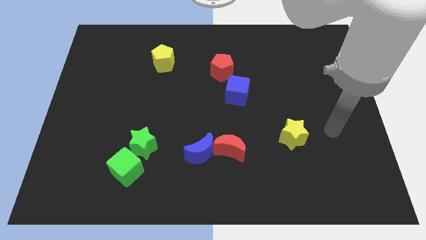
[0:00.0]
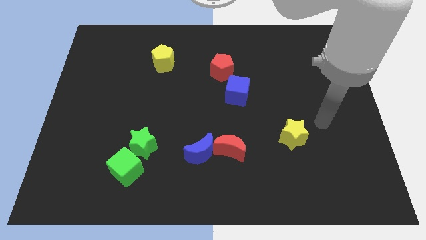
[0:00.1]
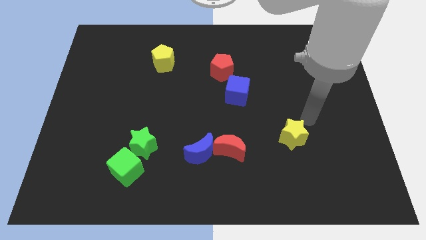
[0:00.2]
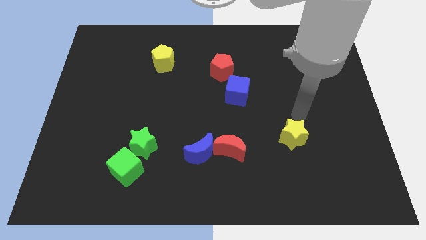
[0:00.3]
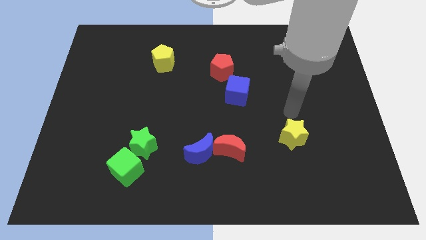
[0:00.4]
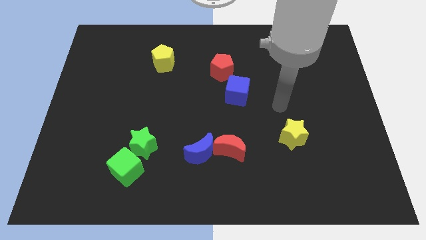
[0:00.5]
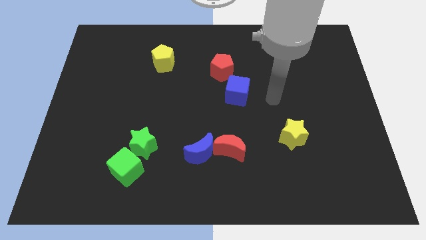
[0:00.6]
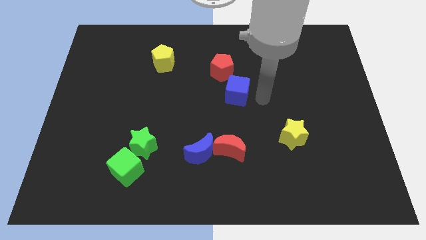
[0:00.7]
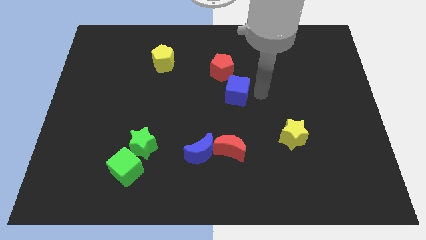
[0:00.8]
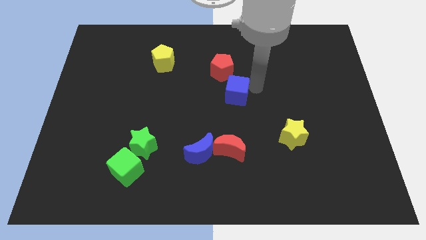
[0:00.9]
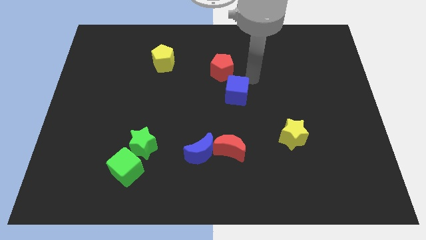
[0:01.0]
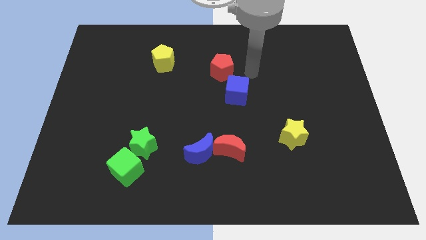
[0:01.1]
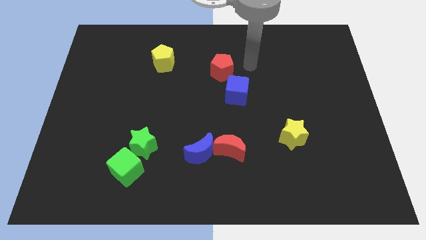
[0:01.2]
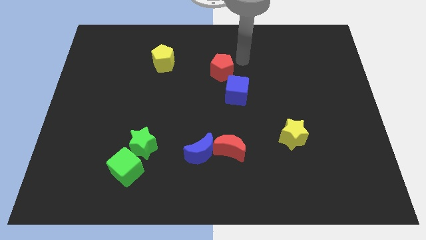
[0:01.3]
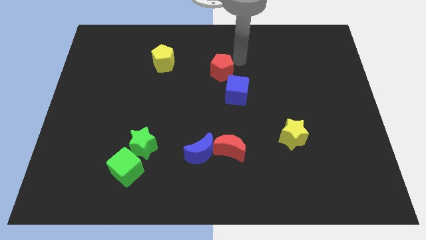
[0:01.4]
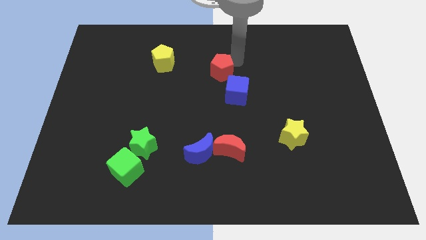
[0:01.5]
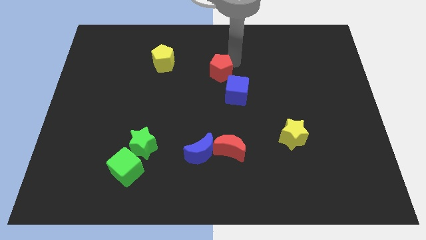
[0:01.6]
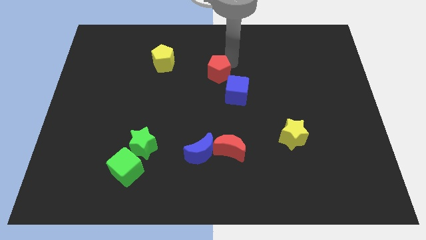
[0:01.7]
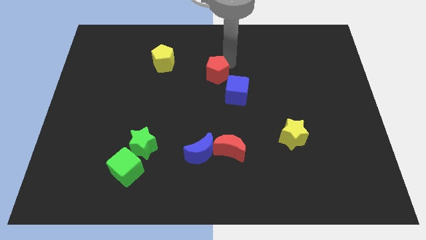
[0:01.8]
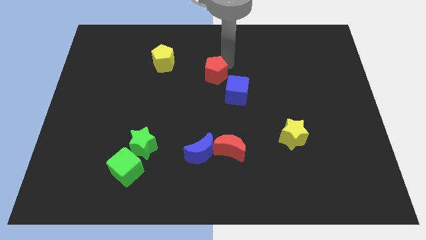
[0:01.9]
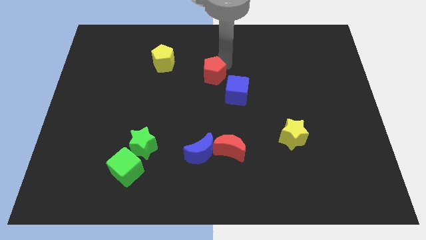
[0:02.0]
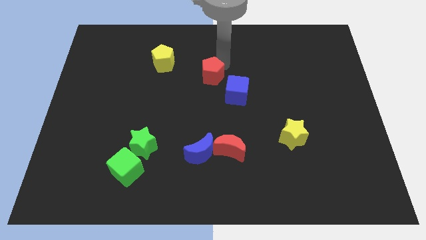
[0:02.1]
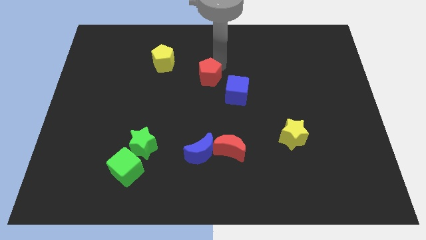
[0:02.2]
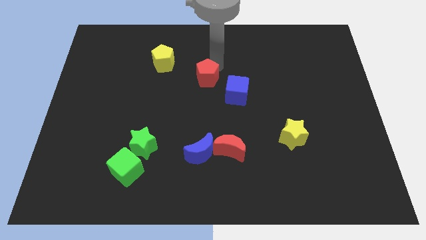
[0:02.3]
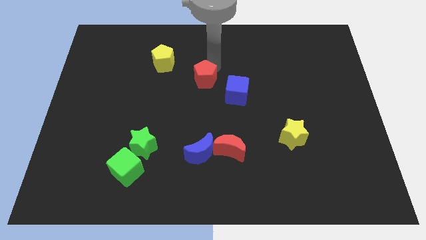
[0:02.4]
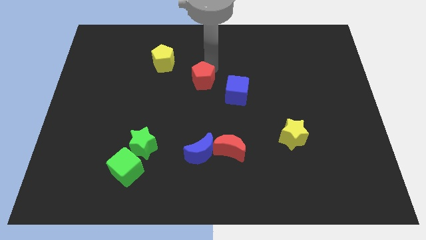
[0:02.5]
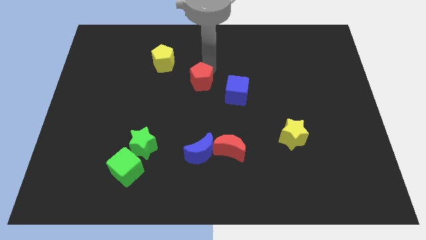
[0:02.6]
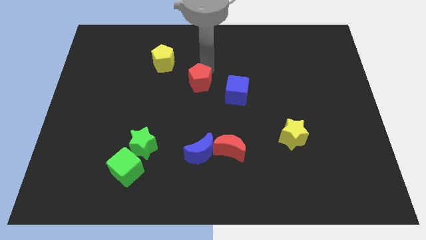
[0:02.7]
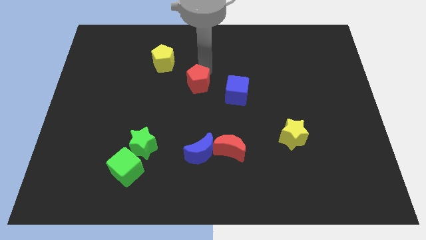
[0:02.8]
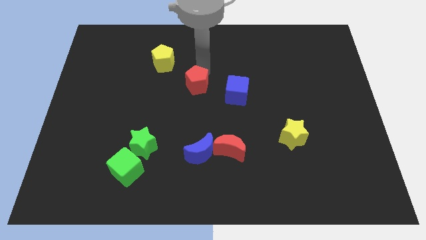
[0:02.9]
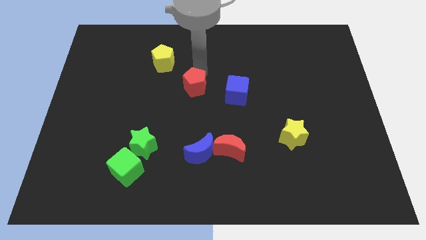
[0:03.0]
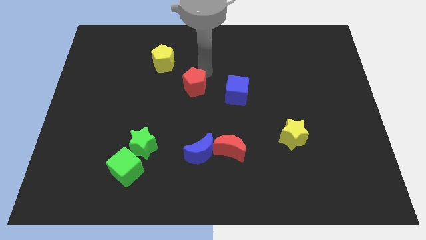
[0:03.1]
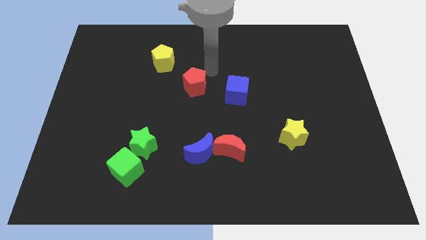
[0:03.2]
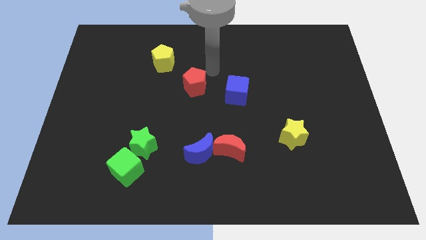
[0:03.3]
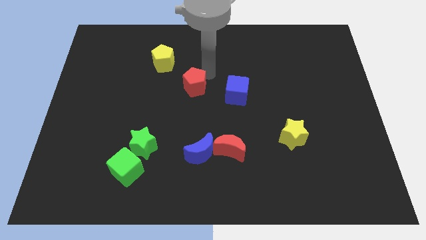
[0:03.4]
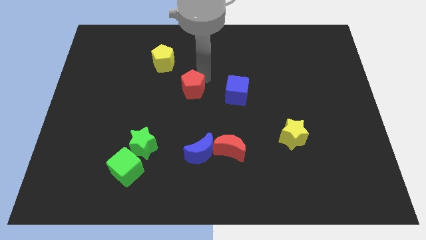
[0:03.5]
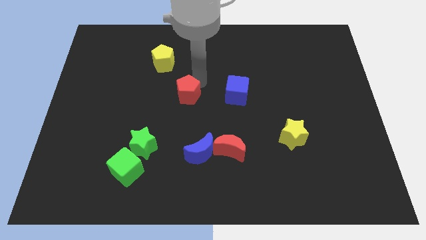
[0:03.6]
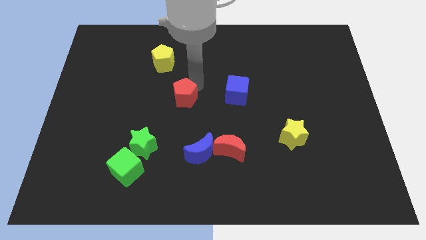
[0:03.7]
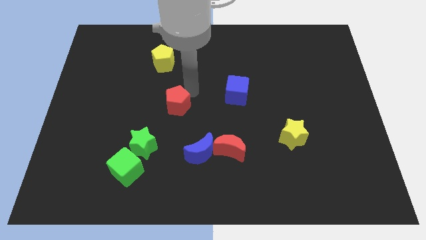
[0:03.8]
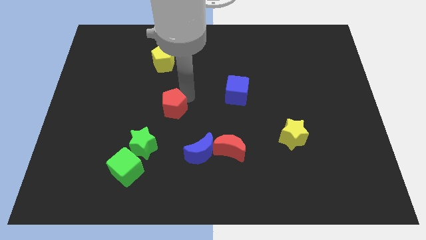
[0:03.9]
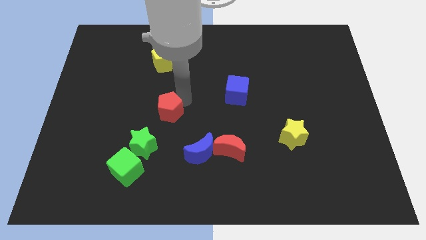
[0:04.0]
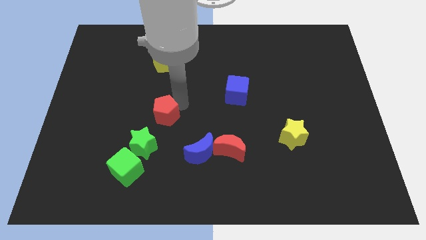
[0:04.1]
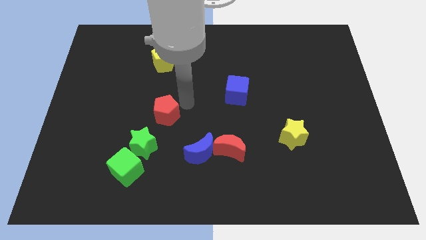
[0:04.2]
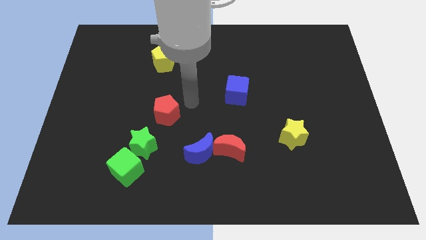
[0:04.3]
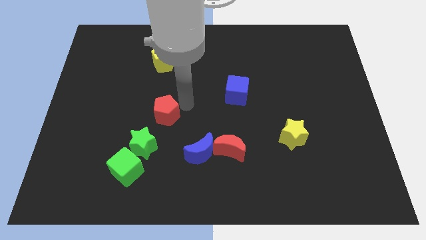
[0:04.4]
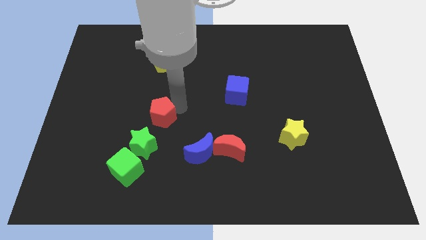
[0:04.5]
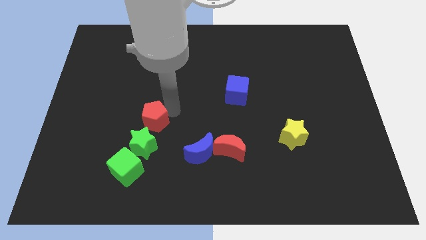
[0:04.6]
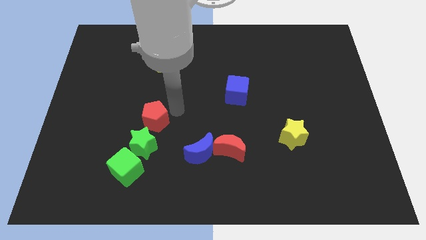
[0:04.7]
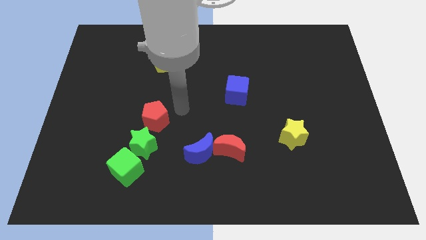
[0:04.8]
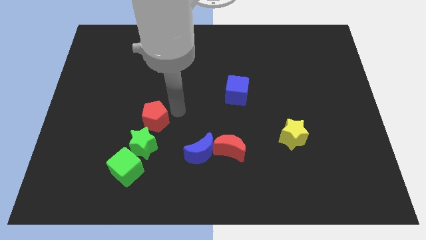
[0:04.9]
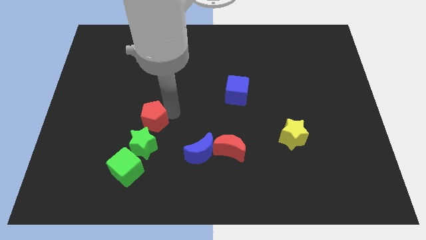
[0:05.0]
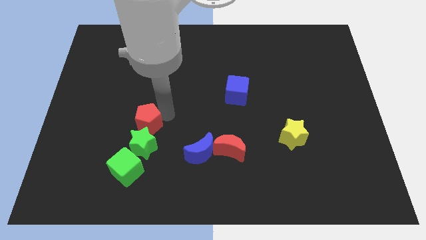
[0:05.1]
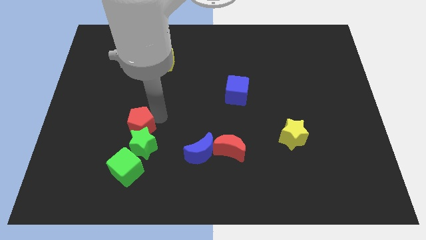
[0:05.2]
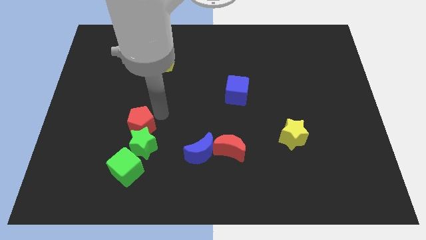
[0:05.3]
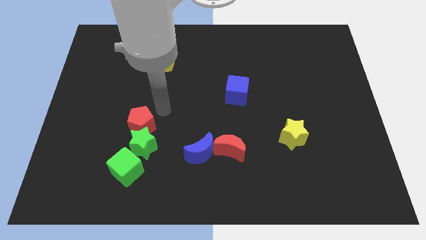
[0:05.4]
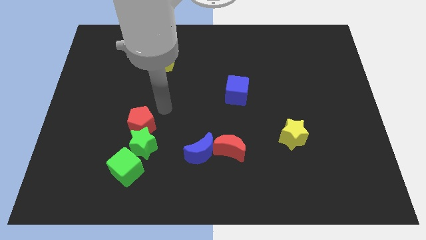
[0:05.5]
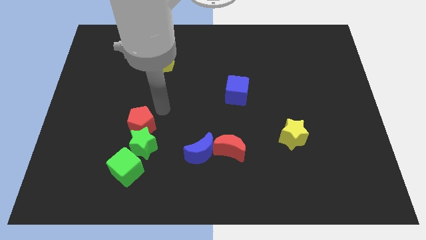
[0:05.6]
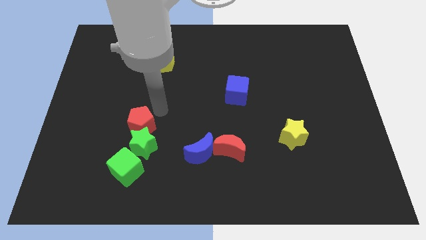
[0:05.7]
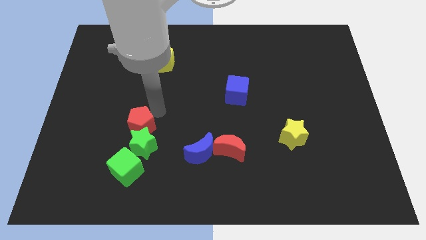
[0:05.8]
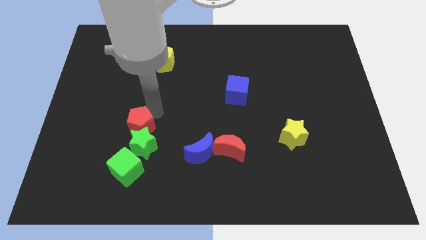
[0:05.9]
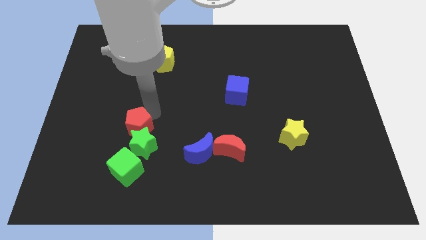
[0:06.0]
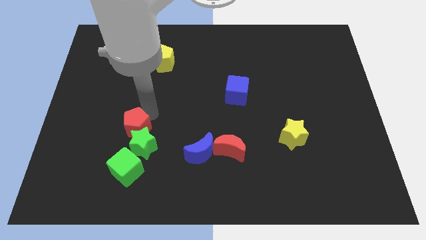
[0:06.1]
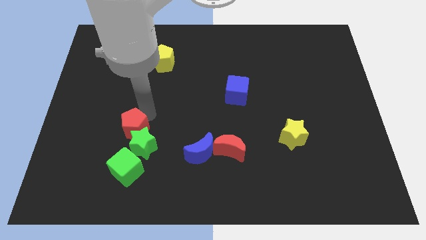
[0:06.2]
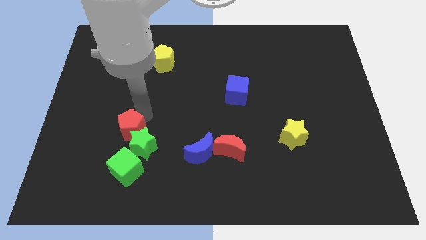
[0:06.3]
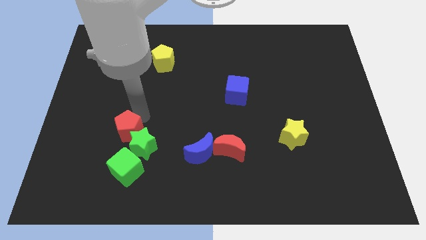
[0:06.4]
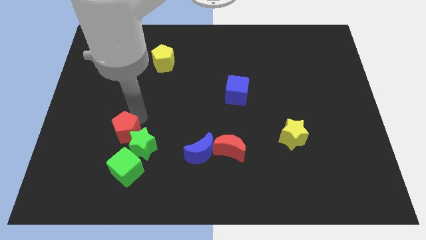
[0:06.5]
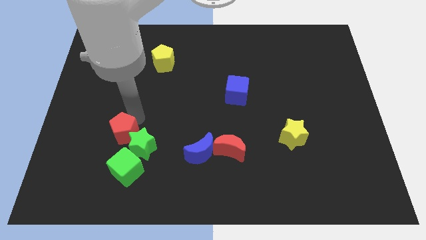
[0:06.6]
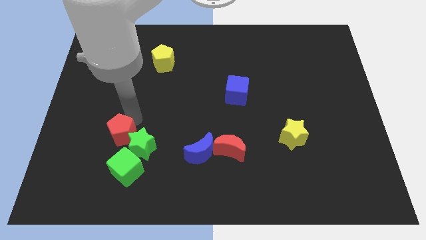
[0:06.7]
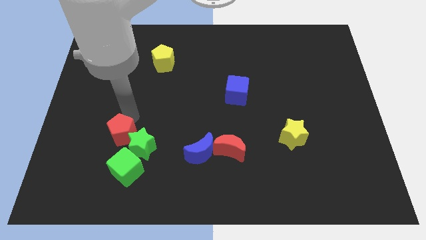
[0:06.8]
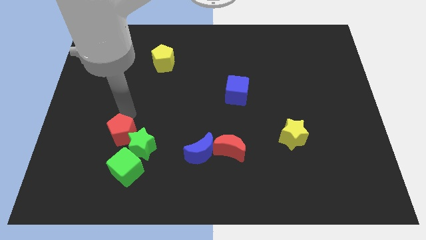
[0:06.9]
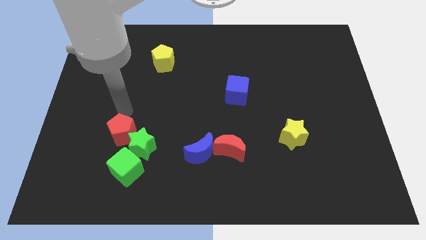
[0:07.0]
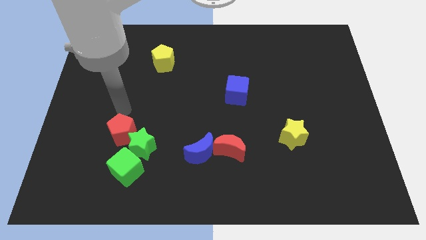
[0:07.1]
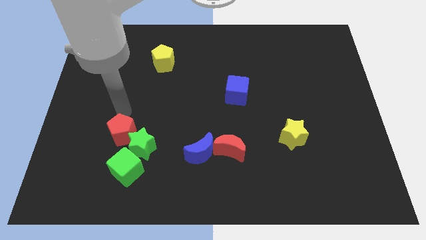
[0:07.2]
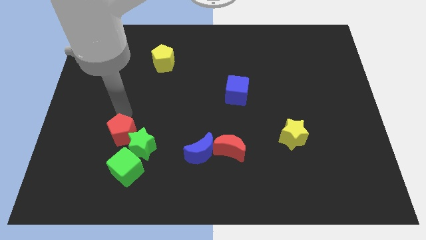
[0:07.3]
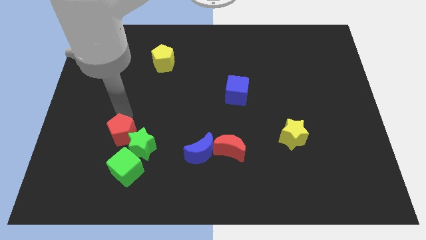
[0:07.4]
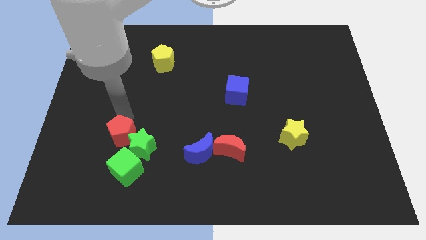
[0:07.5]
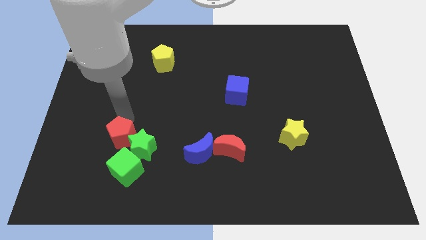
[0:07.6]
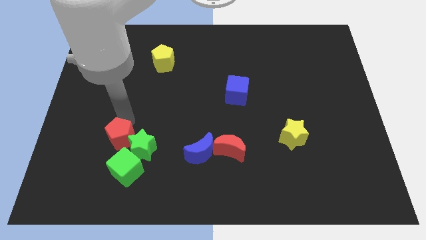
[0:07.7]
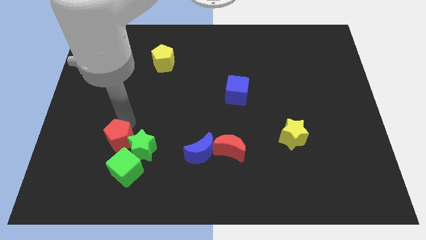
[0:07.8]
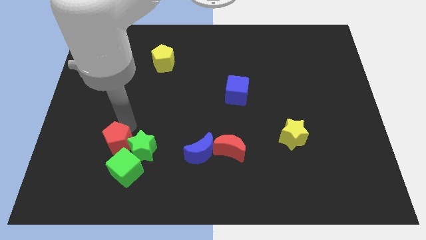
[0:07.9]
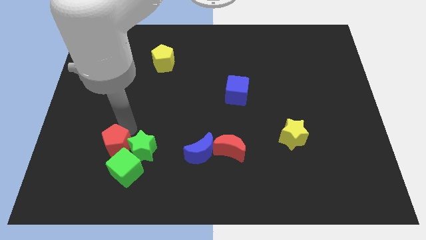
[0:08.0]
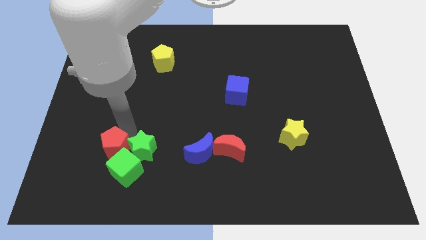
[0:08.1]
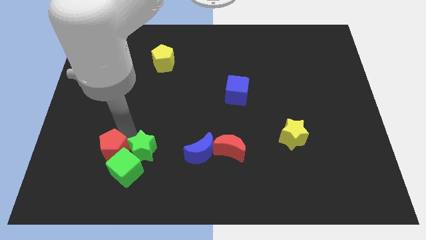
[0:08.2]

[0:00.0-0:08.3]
move the red pentagon towards the green cube
